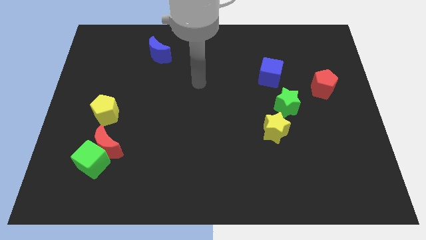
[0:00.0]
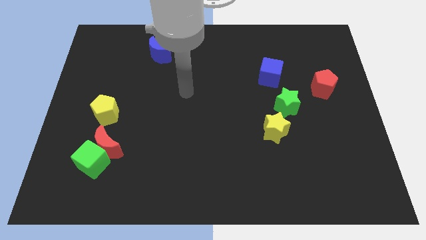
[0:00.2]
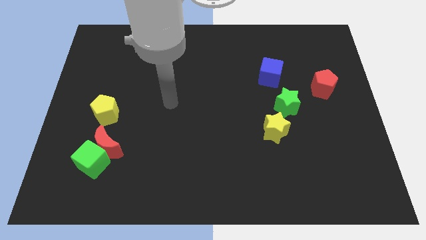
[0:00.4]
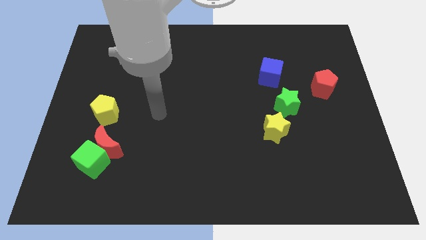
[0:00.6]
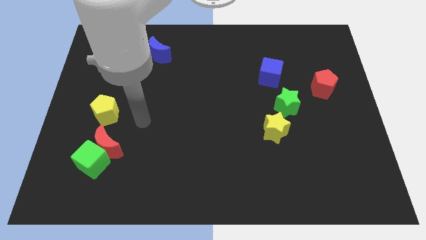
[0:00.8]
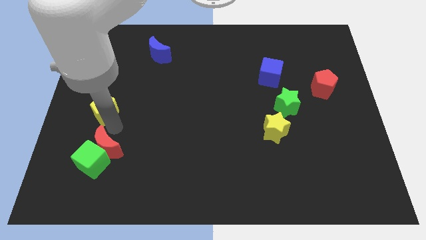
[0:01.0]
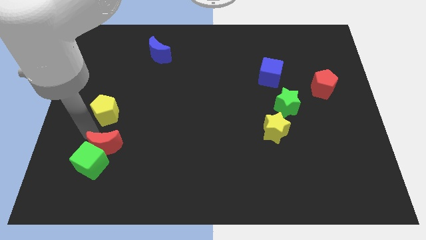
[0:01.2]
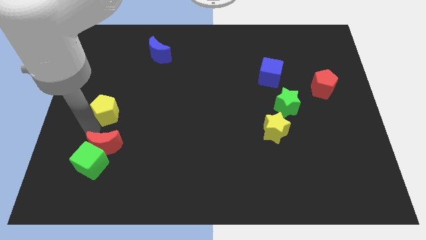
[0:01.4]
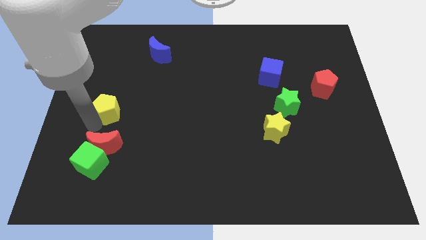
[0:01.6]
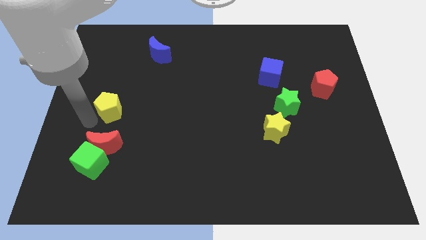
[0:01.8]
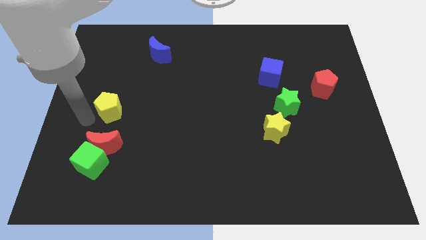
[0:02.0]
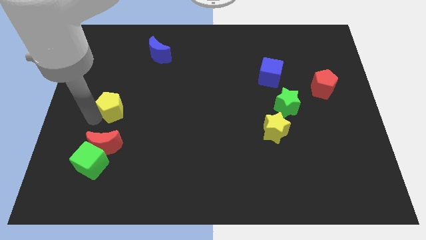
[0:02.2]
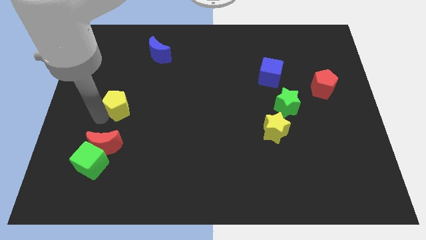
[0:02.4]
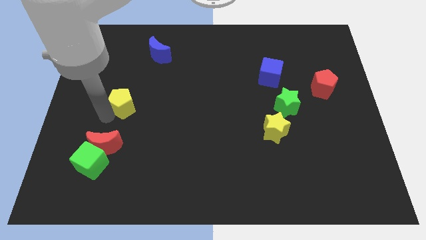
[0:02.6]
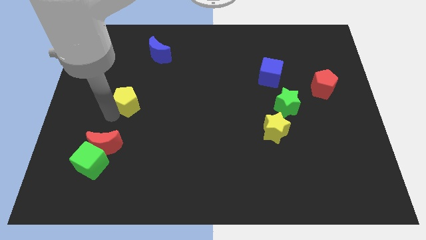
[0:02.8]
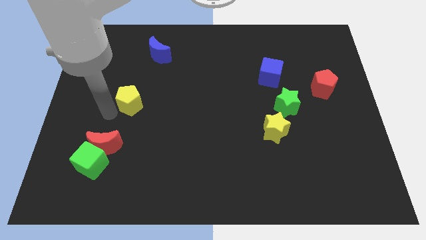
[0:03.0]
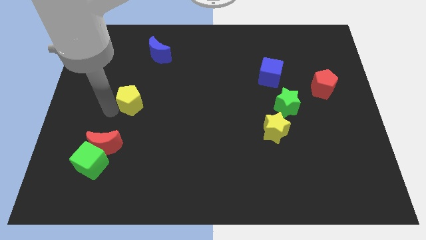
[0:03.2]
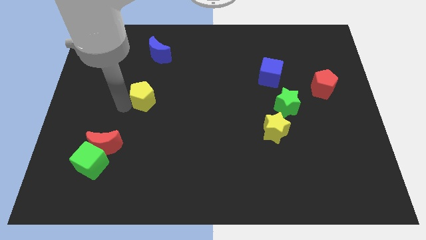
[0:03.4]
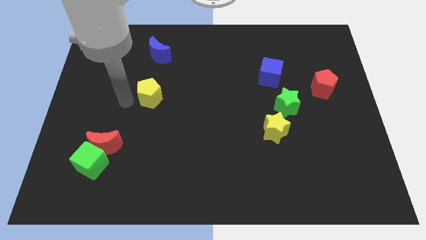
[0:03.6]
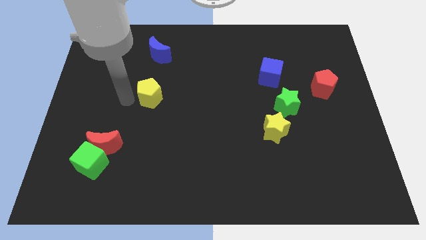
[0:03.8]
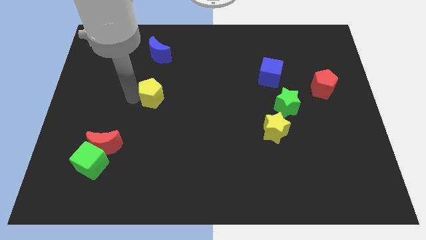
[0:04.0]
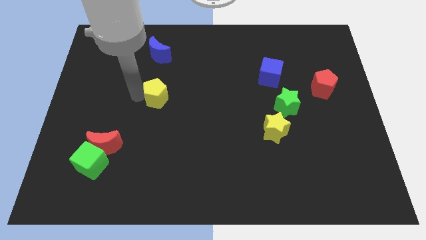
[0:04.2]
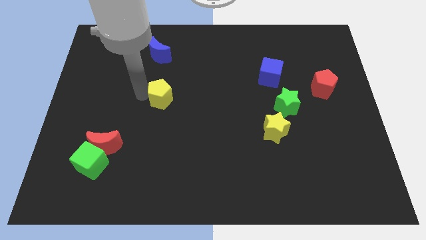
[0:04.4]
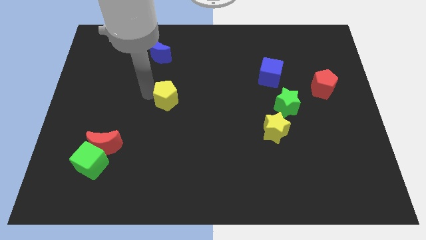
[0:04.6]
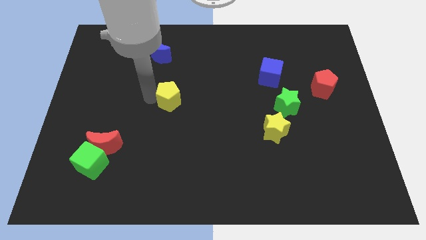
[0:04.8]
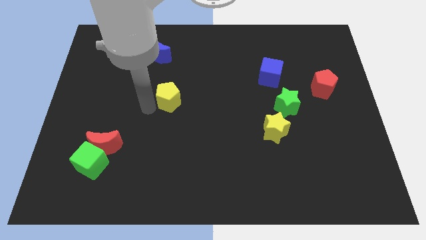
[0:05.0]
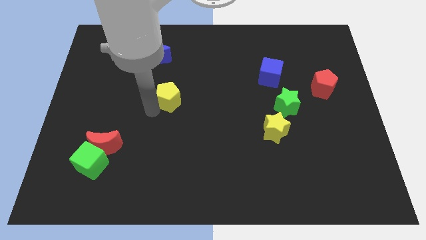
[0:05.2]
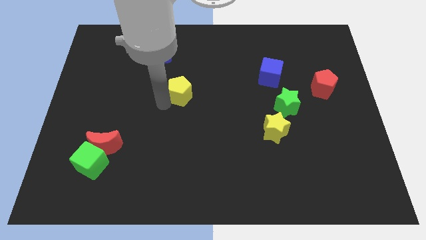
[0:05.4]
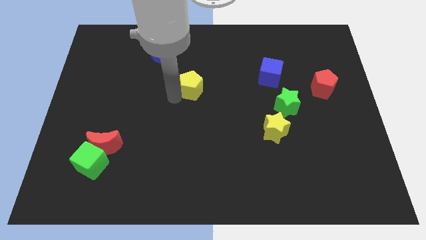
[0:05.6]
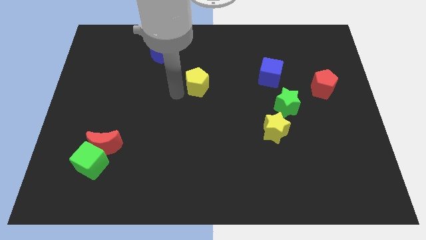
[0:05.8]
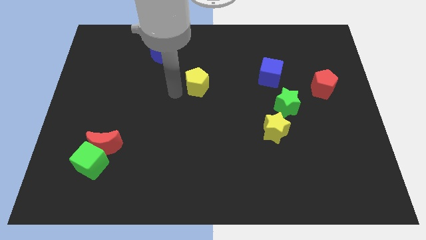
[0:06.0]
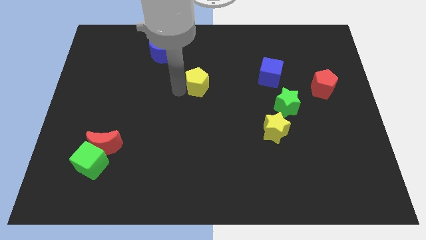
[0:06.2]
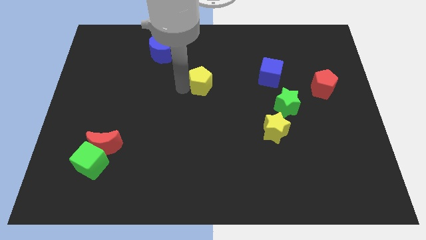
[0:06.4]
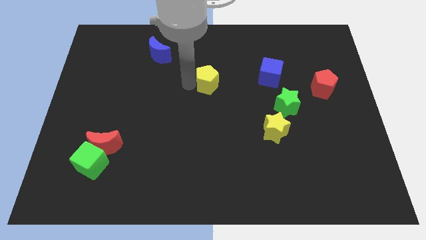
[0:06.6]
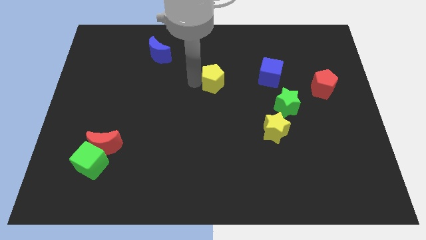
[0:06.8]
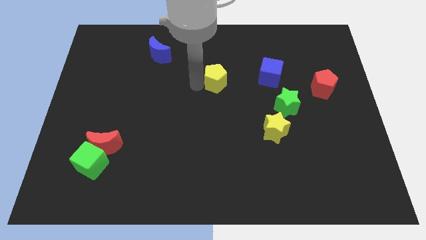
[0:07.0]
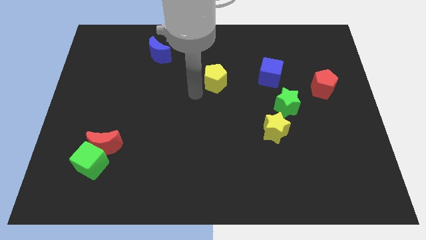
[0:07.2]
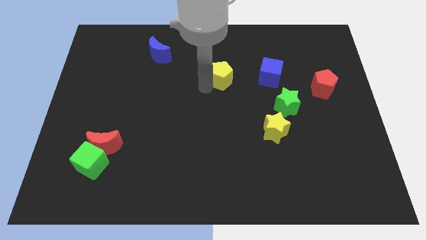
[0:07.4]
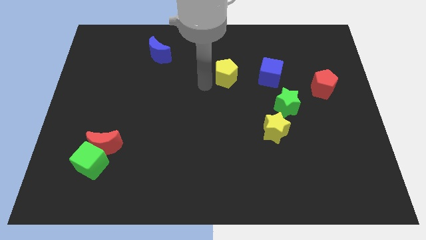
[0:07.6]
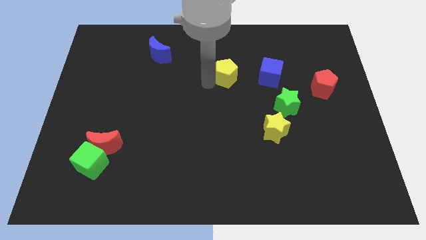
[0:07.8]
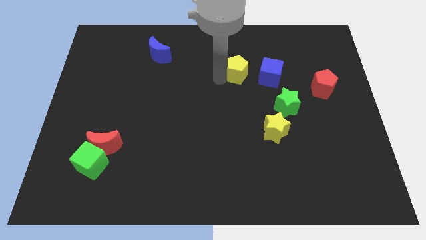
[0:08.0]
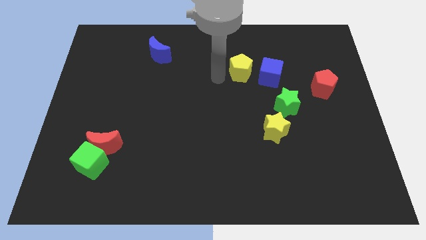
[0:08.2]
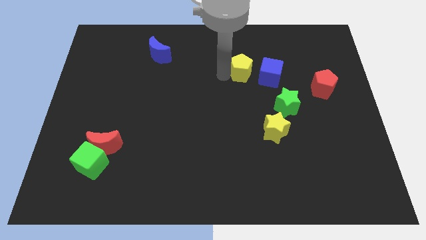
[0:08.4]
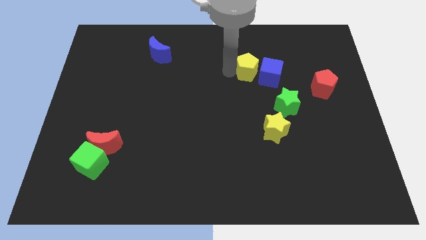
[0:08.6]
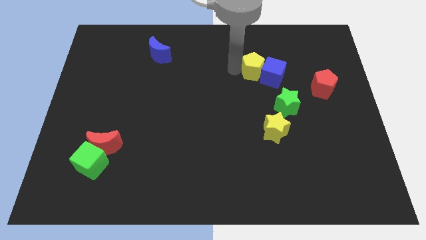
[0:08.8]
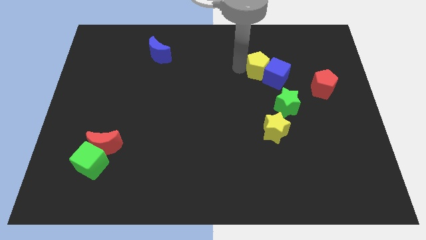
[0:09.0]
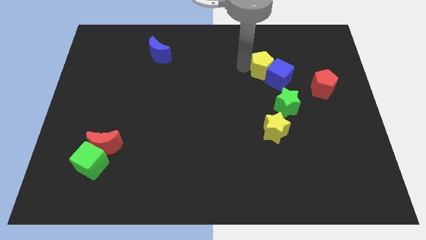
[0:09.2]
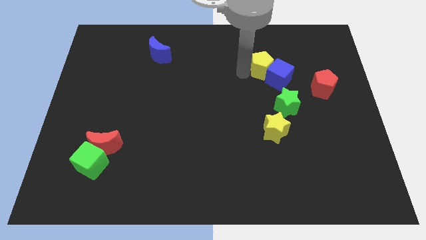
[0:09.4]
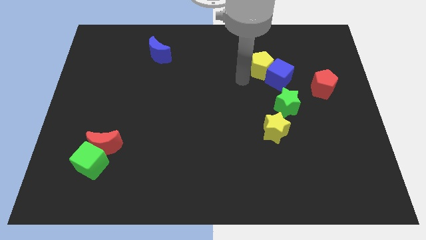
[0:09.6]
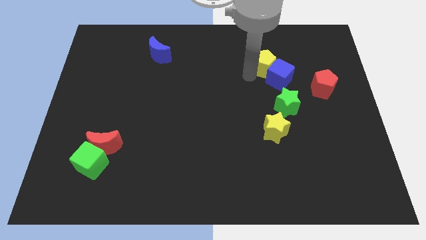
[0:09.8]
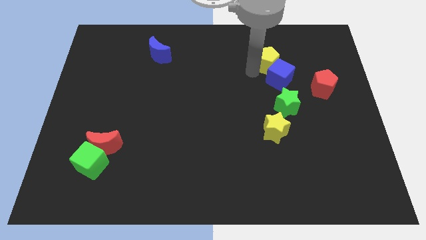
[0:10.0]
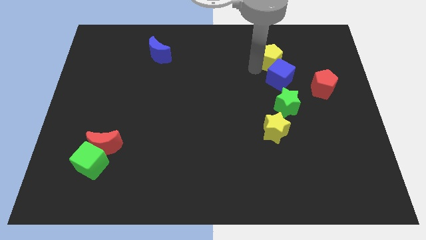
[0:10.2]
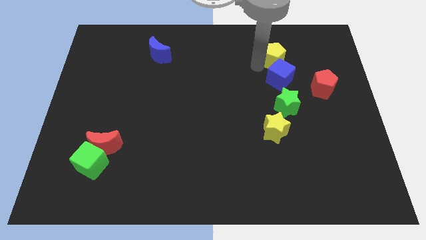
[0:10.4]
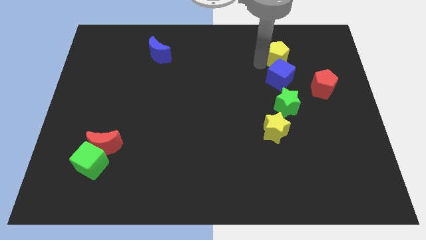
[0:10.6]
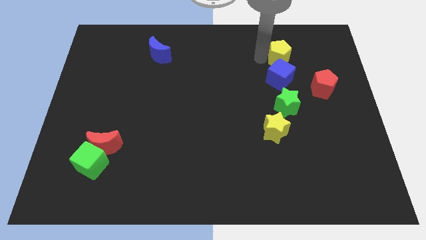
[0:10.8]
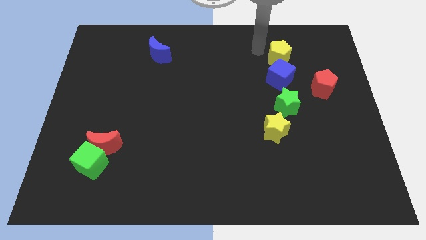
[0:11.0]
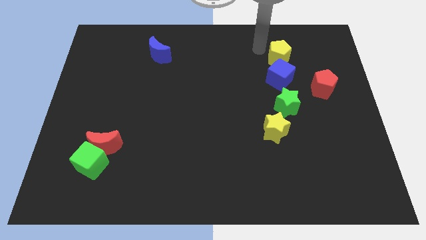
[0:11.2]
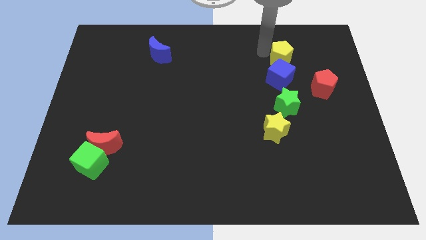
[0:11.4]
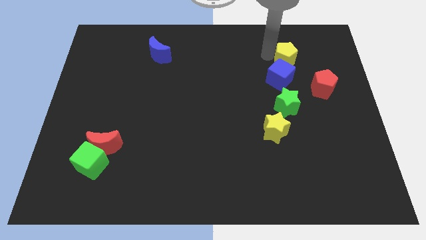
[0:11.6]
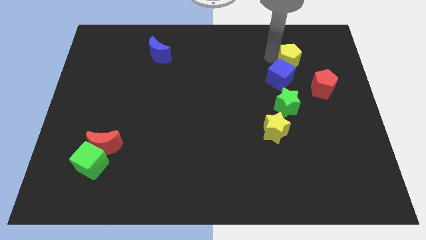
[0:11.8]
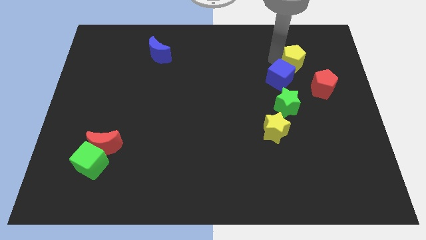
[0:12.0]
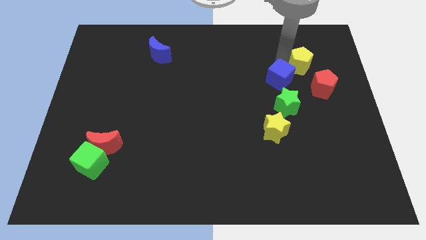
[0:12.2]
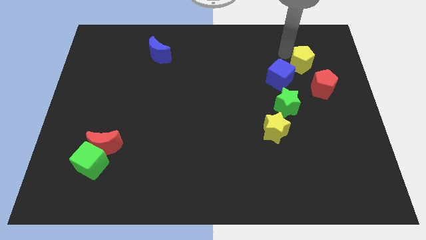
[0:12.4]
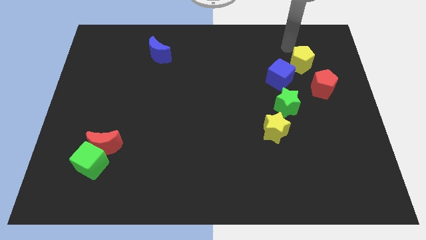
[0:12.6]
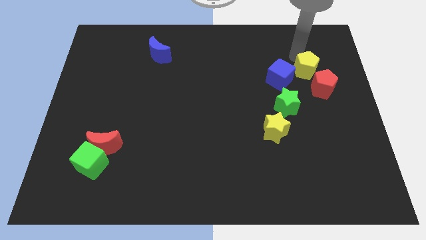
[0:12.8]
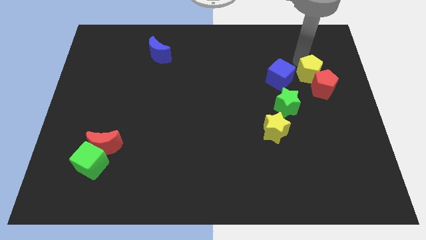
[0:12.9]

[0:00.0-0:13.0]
move the yellow pentagon to the red pentagon
